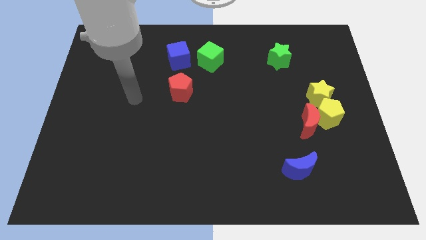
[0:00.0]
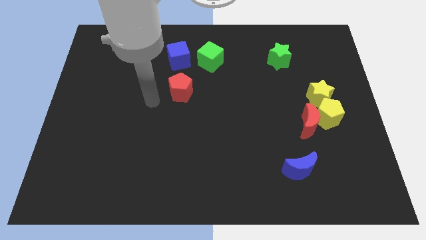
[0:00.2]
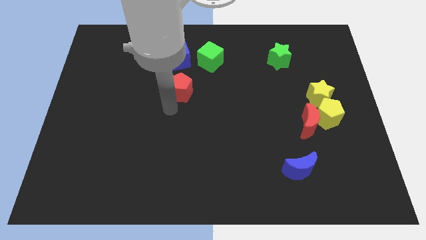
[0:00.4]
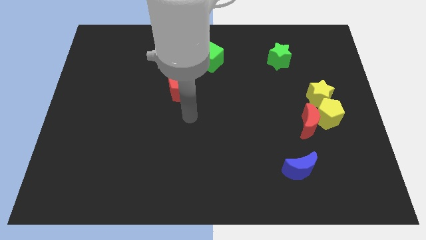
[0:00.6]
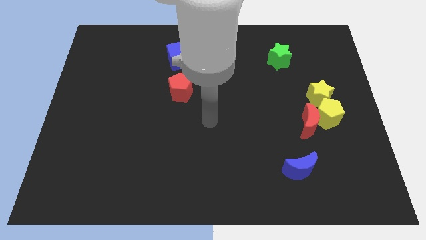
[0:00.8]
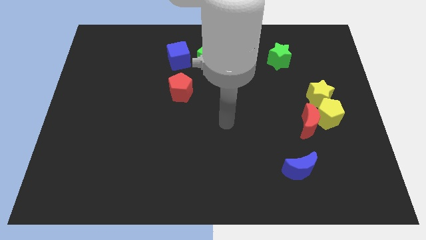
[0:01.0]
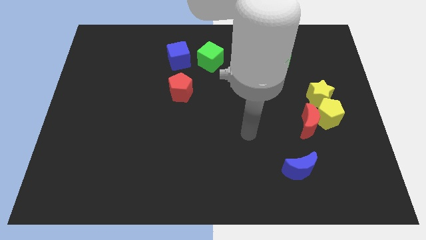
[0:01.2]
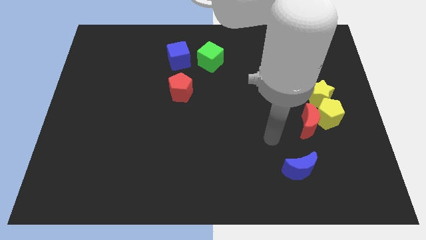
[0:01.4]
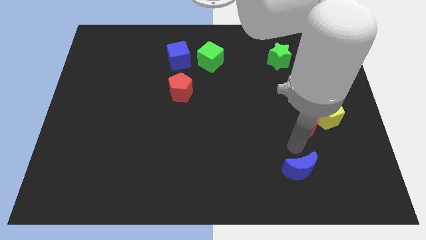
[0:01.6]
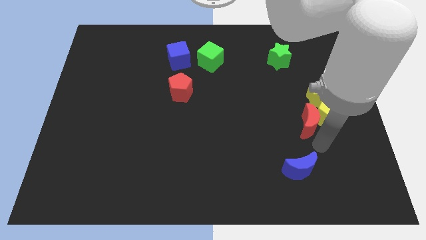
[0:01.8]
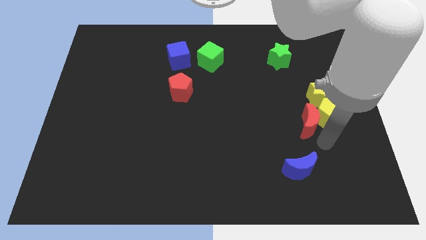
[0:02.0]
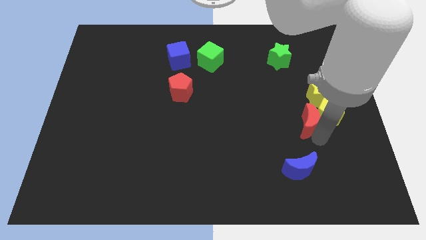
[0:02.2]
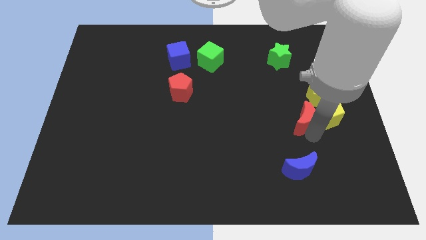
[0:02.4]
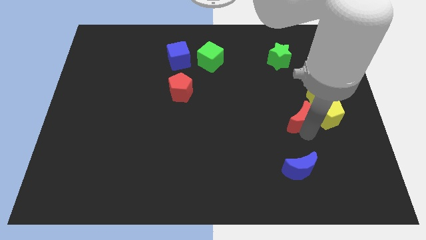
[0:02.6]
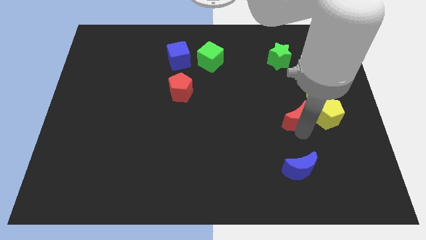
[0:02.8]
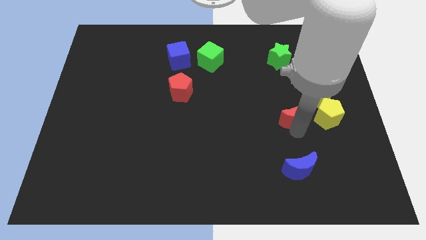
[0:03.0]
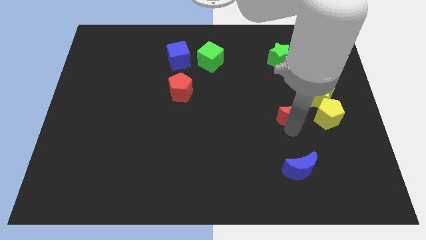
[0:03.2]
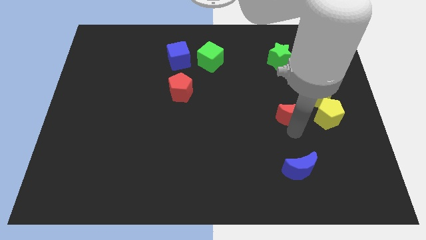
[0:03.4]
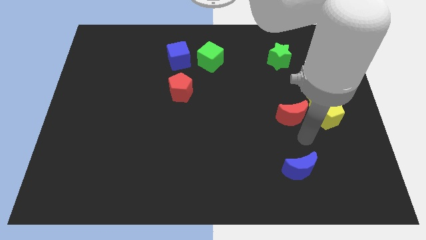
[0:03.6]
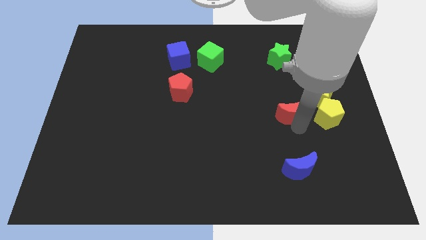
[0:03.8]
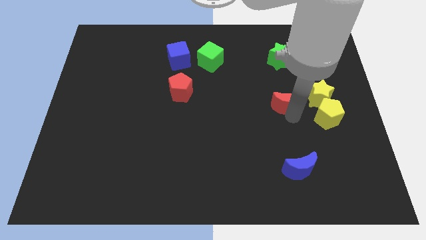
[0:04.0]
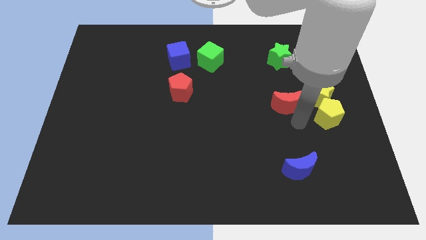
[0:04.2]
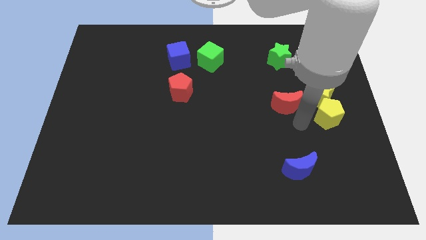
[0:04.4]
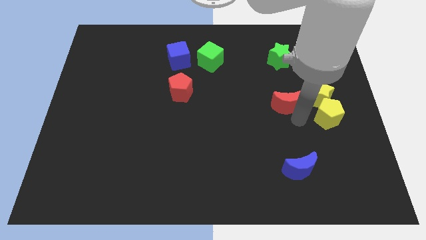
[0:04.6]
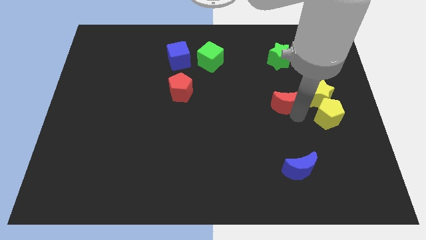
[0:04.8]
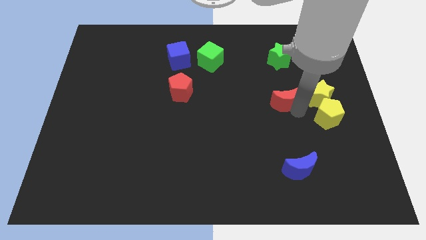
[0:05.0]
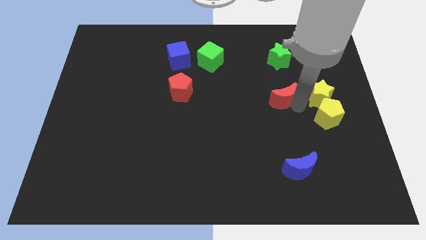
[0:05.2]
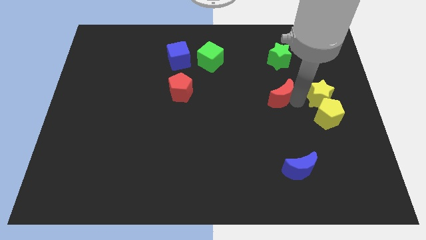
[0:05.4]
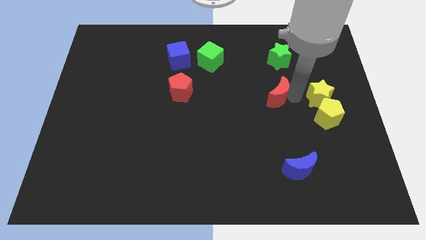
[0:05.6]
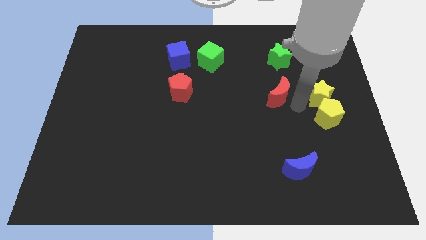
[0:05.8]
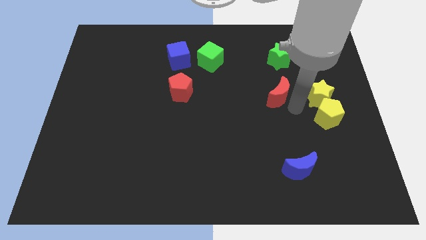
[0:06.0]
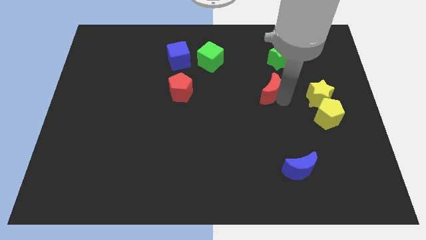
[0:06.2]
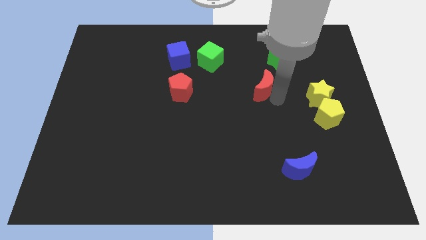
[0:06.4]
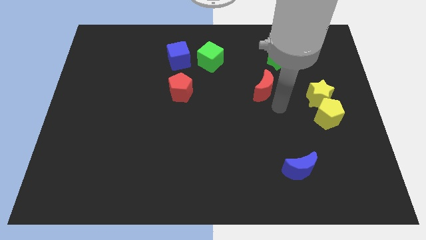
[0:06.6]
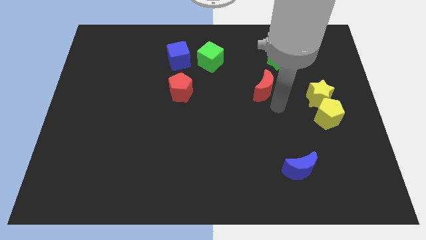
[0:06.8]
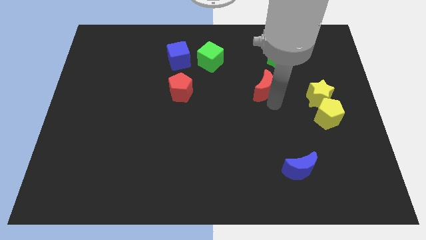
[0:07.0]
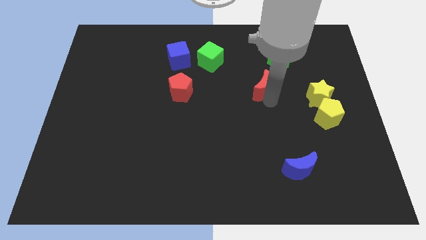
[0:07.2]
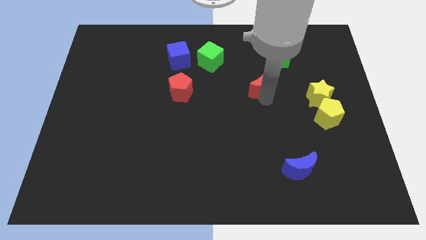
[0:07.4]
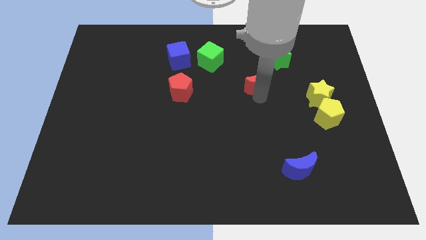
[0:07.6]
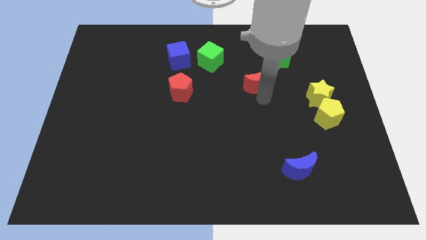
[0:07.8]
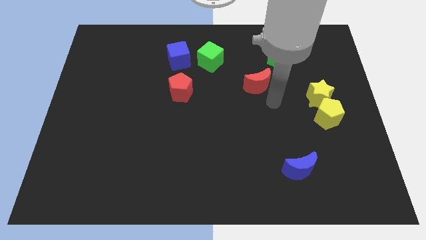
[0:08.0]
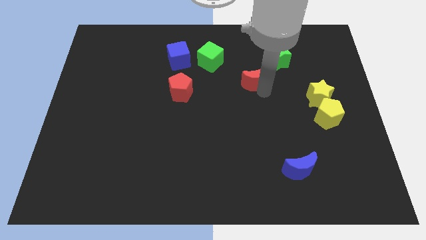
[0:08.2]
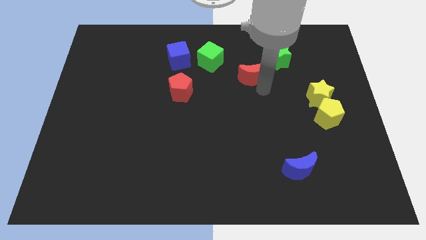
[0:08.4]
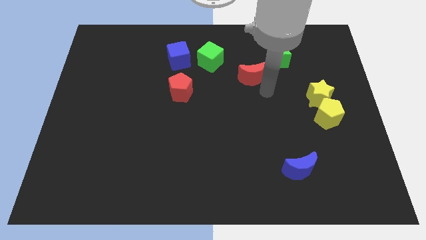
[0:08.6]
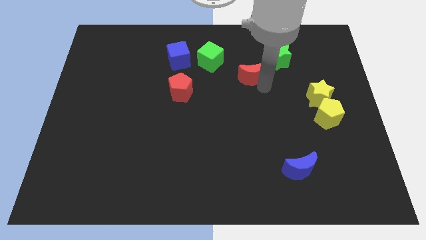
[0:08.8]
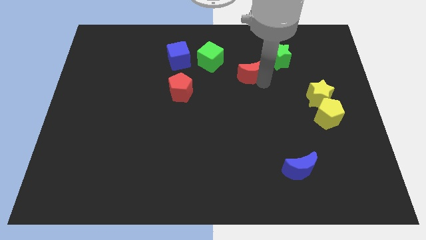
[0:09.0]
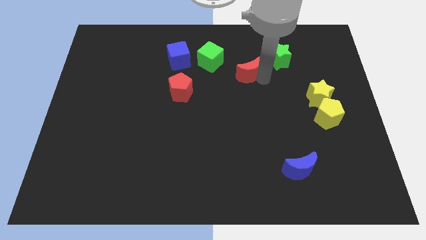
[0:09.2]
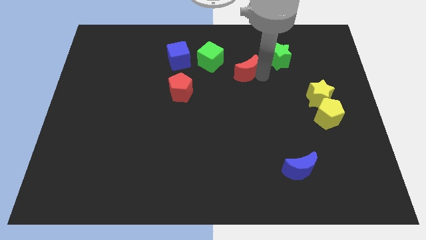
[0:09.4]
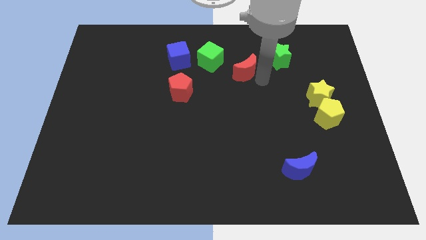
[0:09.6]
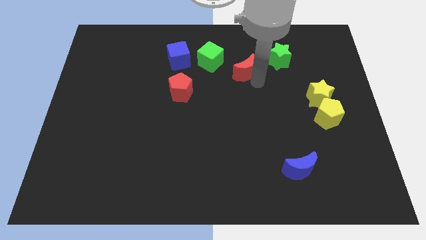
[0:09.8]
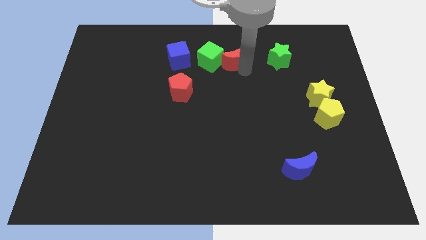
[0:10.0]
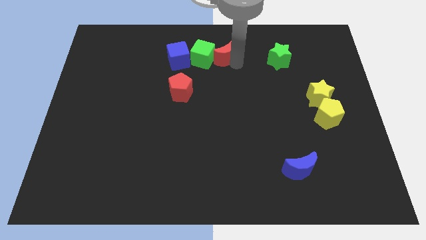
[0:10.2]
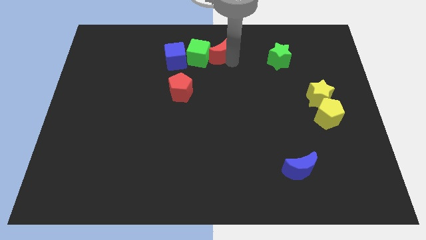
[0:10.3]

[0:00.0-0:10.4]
put the red moon to the top side

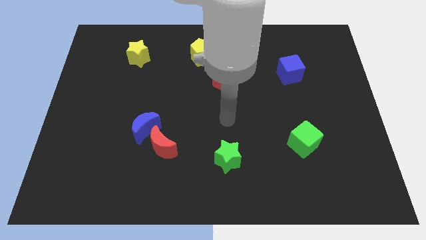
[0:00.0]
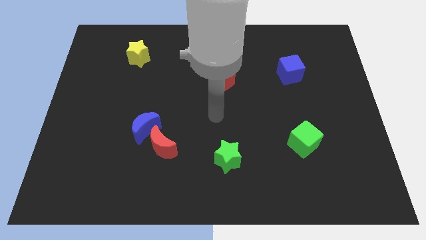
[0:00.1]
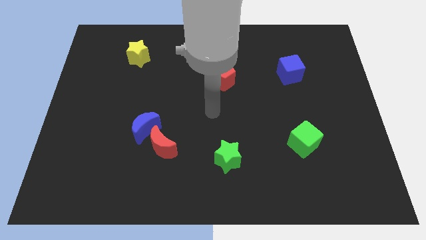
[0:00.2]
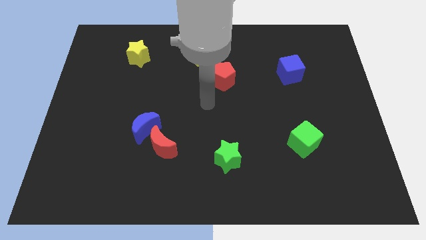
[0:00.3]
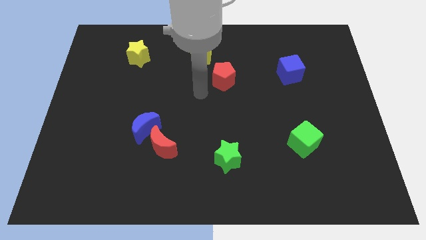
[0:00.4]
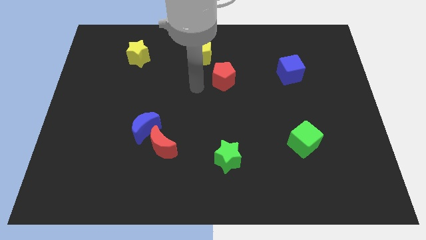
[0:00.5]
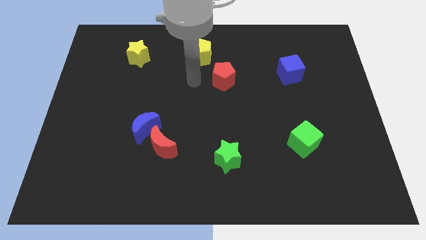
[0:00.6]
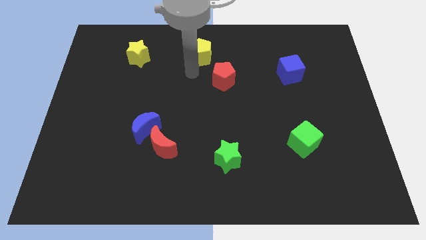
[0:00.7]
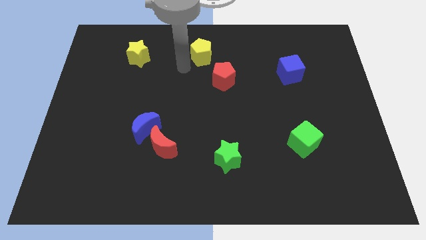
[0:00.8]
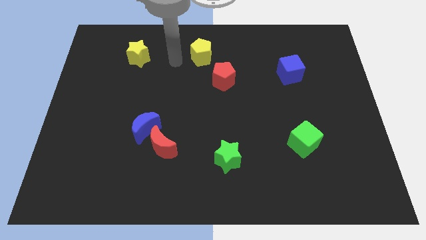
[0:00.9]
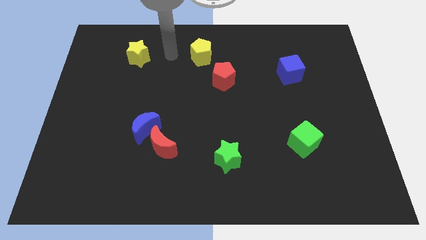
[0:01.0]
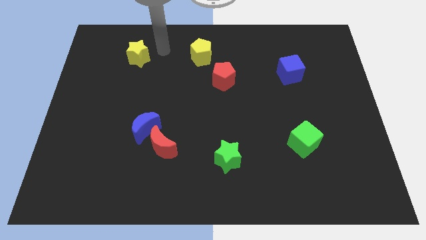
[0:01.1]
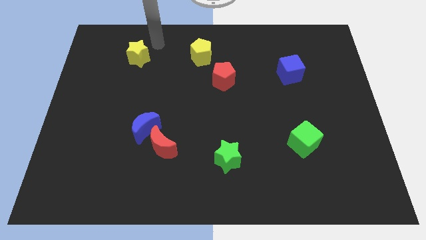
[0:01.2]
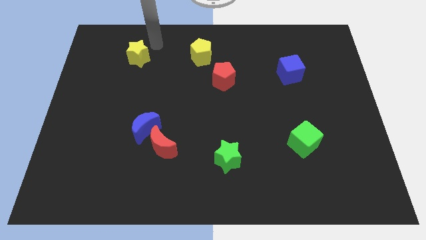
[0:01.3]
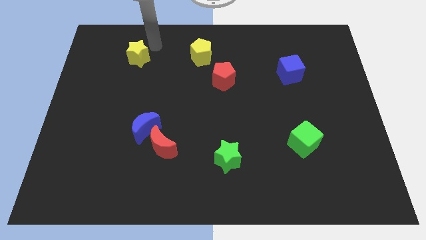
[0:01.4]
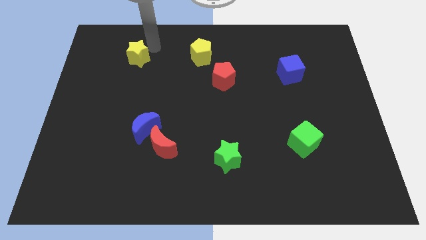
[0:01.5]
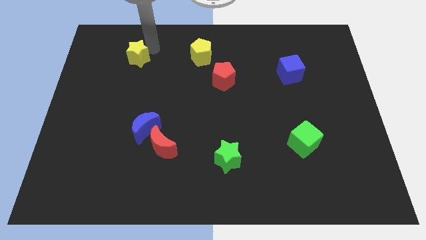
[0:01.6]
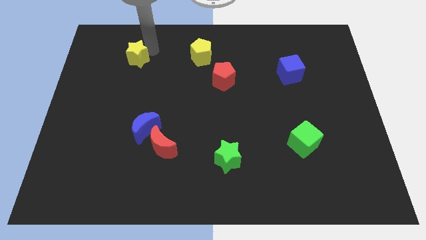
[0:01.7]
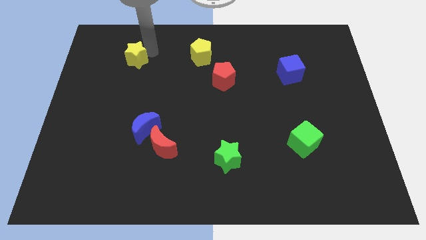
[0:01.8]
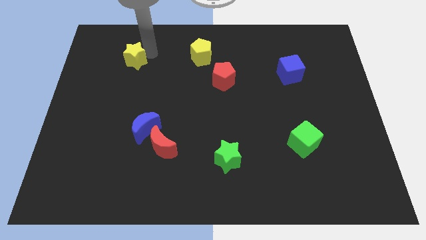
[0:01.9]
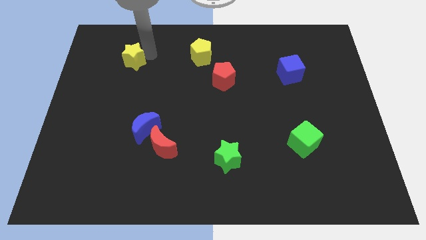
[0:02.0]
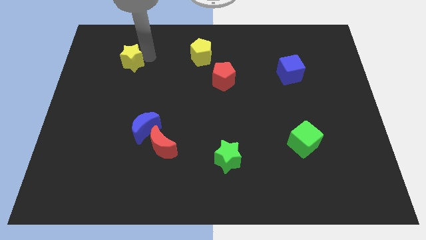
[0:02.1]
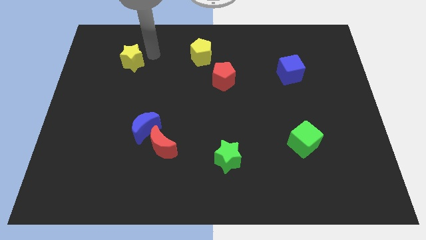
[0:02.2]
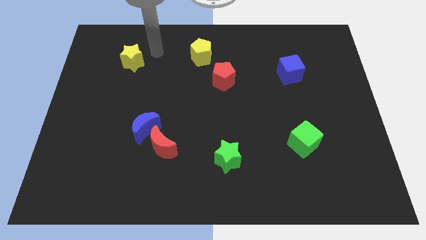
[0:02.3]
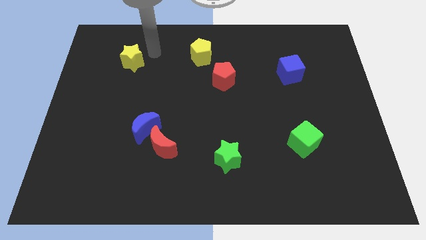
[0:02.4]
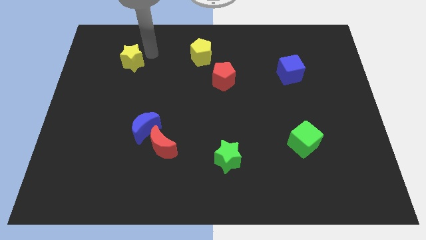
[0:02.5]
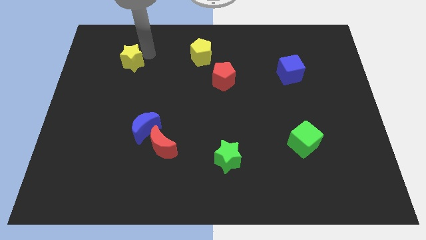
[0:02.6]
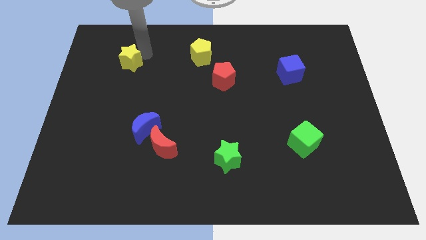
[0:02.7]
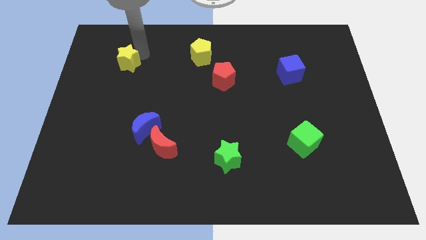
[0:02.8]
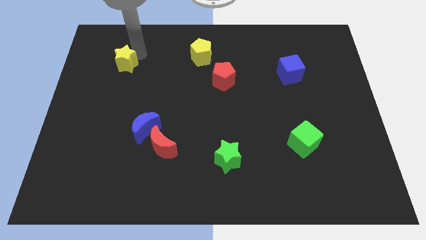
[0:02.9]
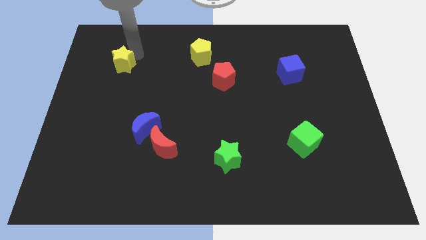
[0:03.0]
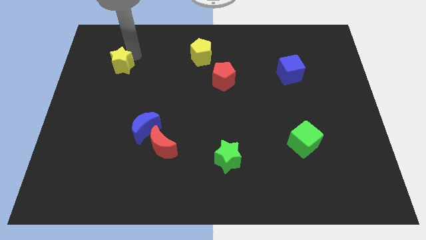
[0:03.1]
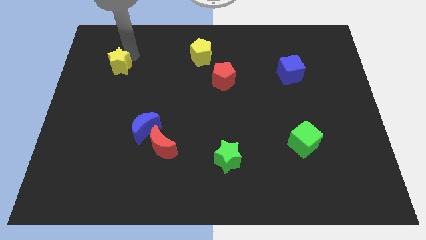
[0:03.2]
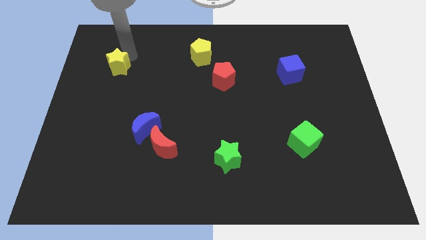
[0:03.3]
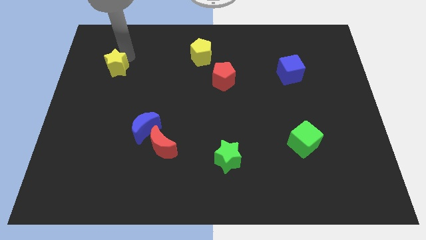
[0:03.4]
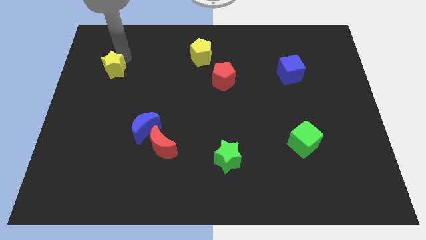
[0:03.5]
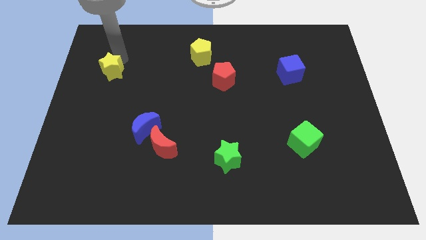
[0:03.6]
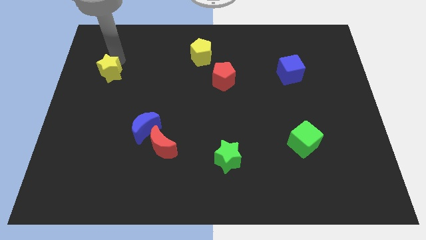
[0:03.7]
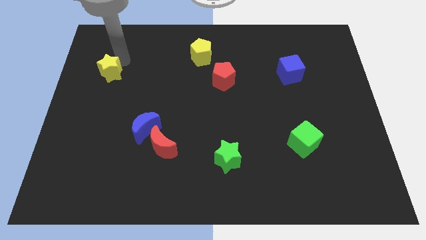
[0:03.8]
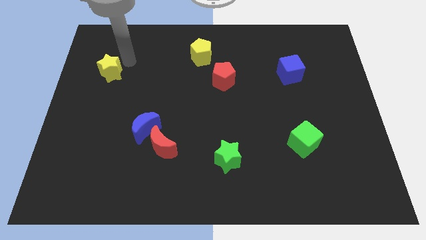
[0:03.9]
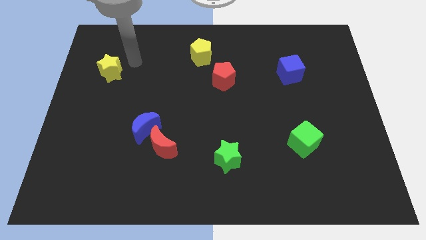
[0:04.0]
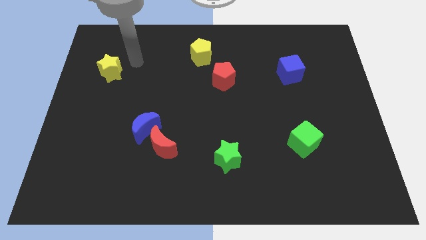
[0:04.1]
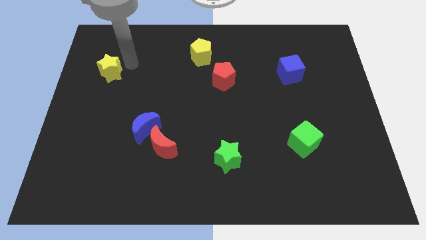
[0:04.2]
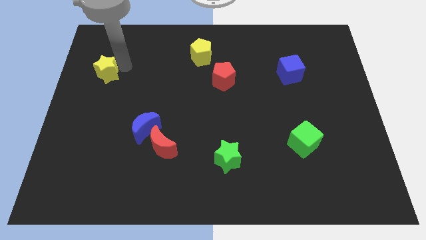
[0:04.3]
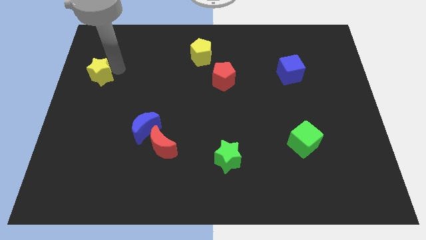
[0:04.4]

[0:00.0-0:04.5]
push the yellow star to the left side of the board
